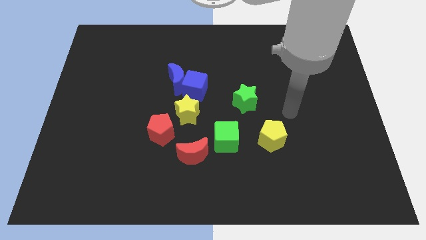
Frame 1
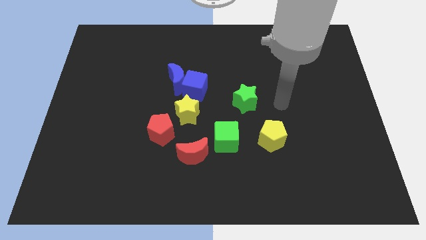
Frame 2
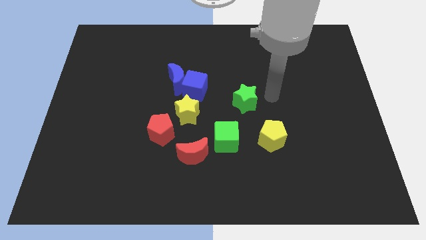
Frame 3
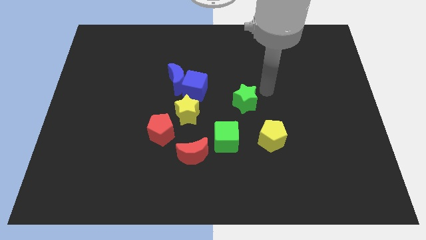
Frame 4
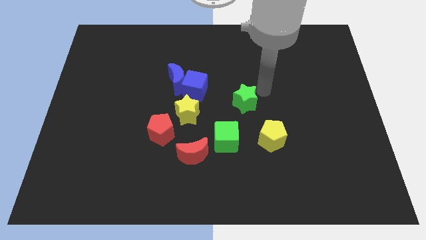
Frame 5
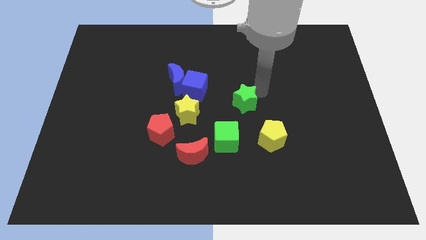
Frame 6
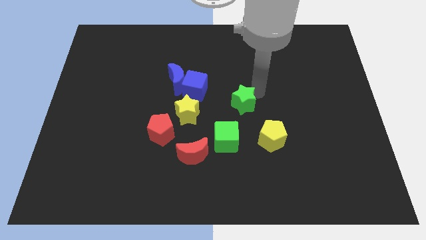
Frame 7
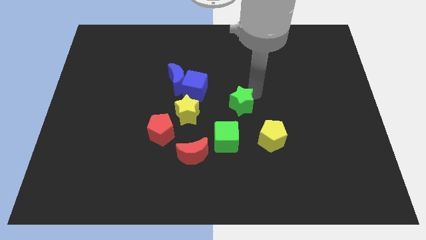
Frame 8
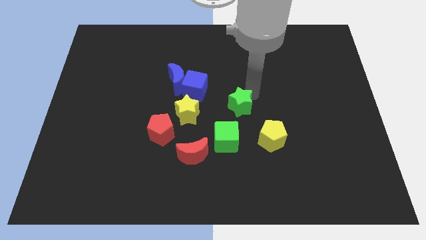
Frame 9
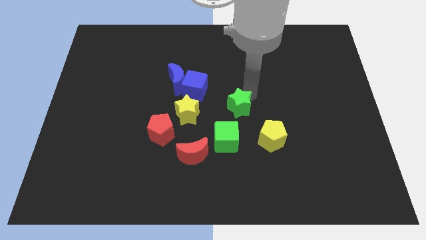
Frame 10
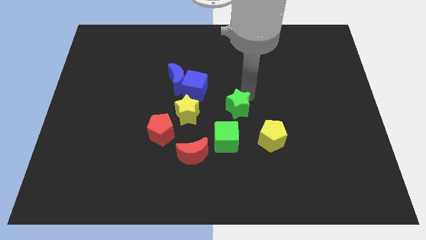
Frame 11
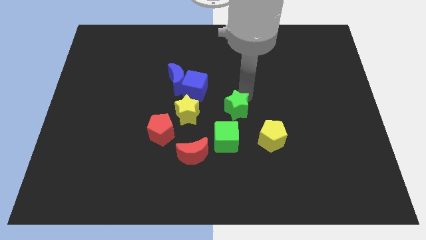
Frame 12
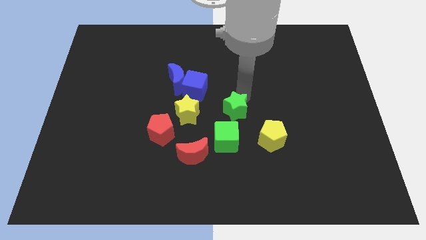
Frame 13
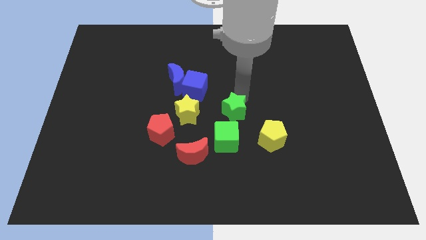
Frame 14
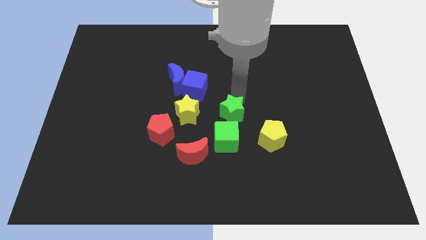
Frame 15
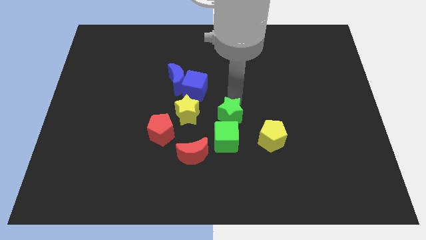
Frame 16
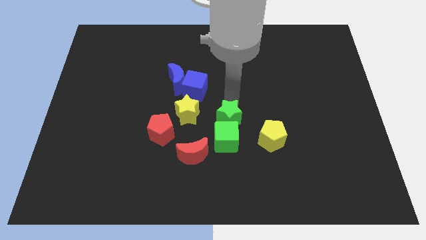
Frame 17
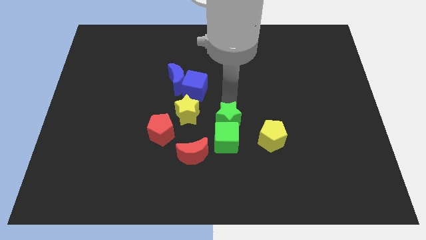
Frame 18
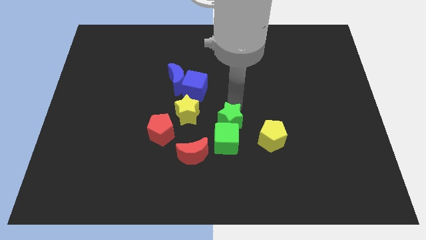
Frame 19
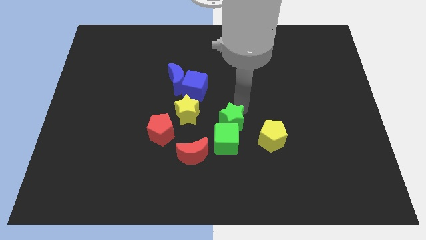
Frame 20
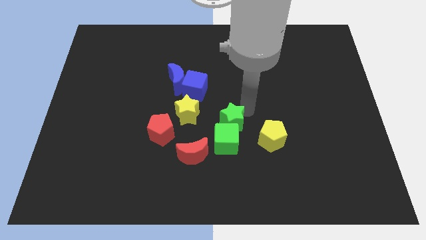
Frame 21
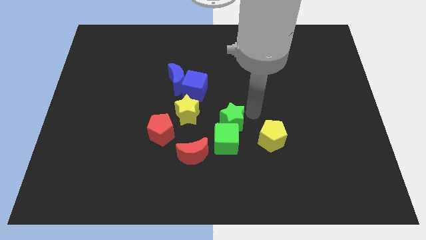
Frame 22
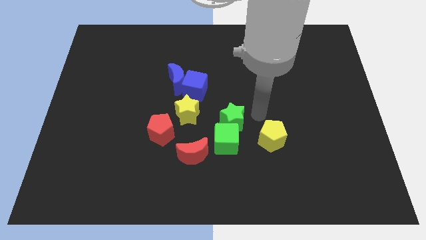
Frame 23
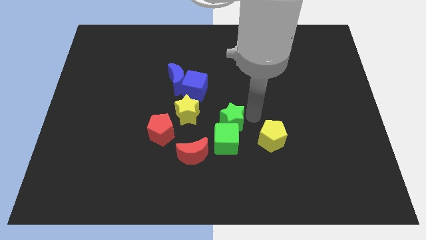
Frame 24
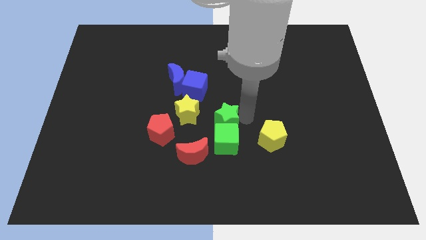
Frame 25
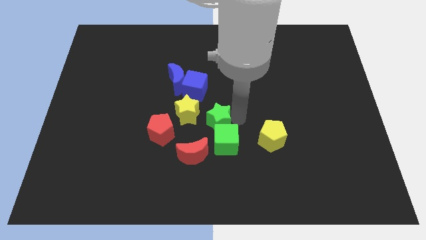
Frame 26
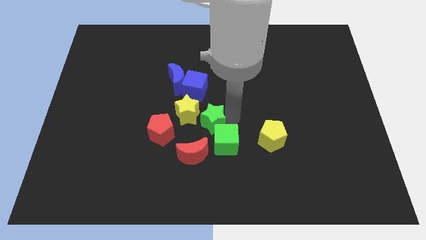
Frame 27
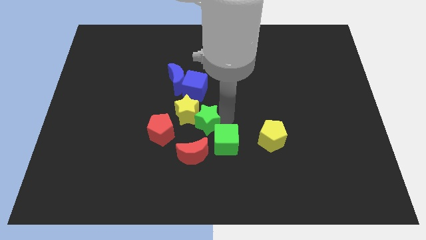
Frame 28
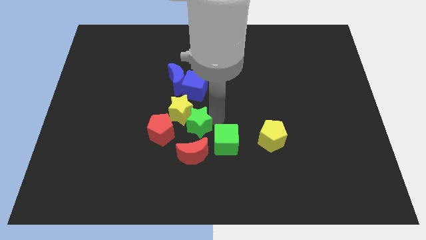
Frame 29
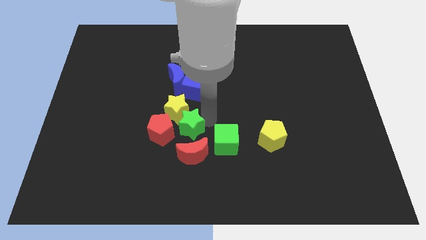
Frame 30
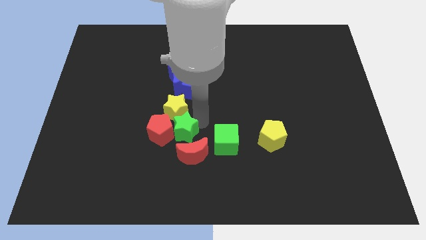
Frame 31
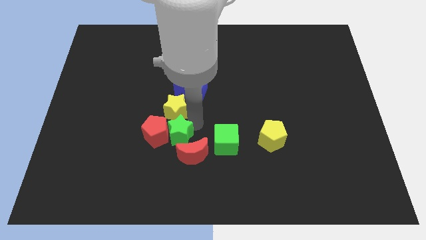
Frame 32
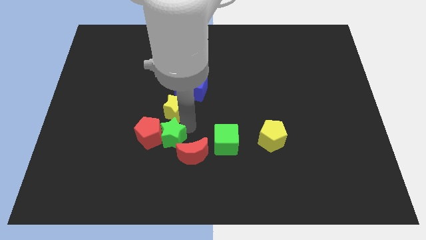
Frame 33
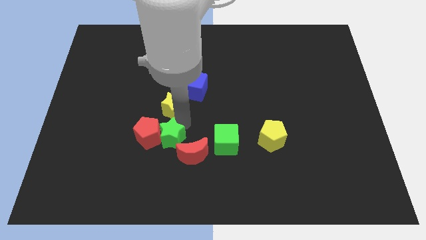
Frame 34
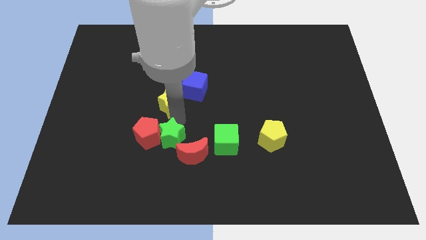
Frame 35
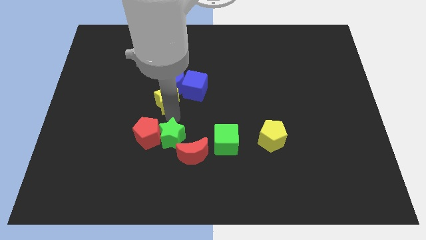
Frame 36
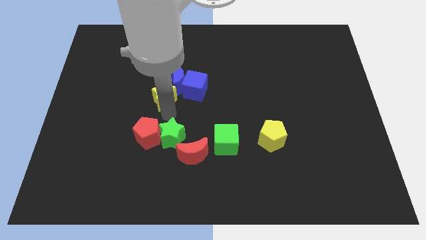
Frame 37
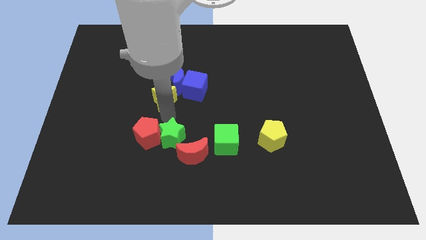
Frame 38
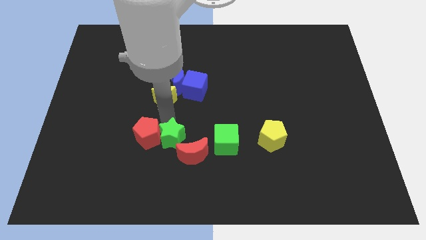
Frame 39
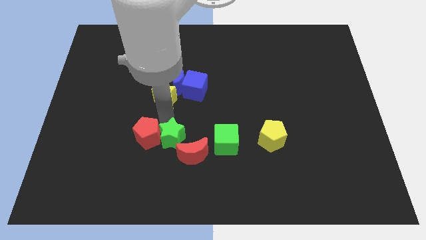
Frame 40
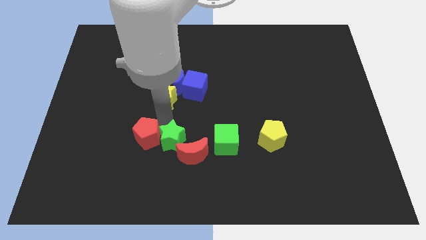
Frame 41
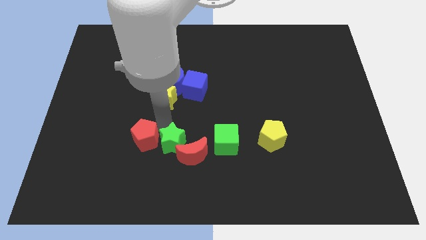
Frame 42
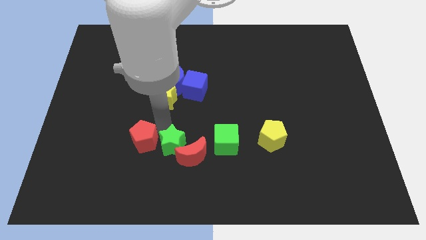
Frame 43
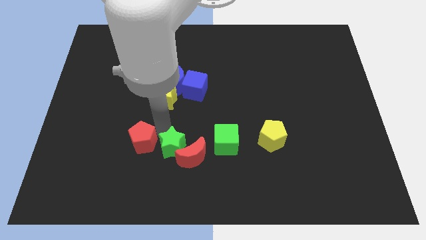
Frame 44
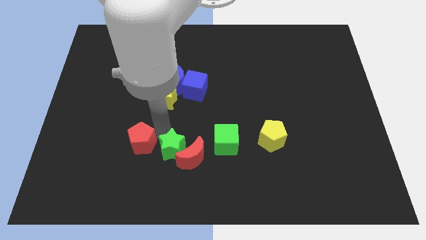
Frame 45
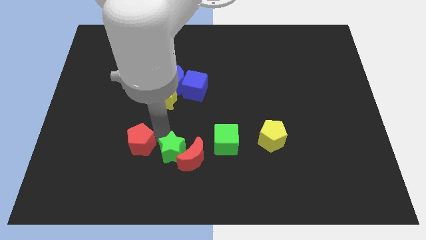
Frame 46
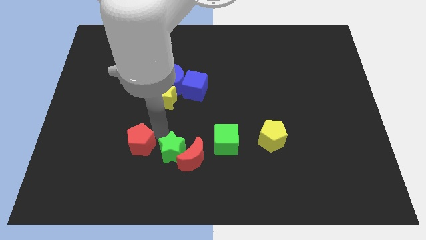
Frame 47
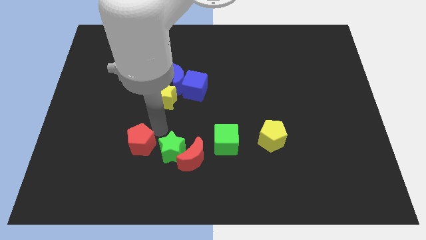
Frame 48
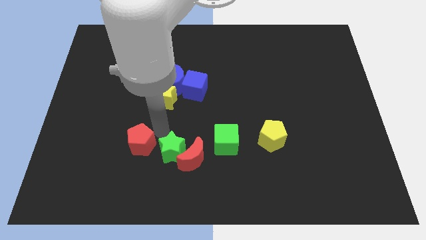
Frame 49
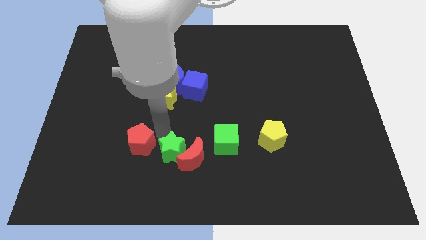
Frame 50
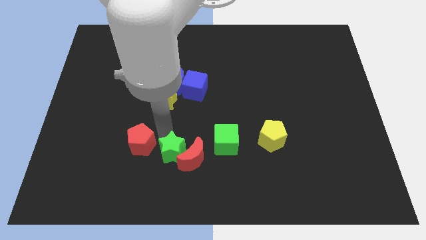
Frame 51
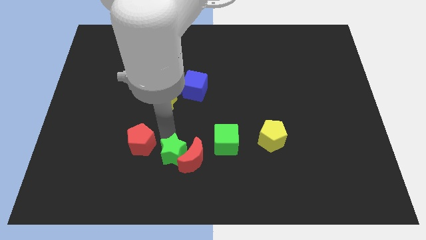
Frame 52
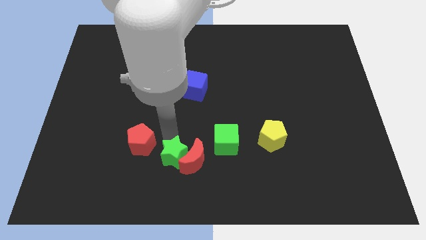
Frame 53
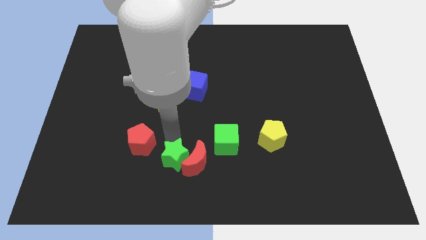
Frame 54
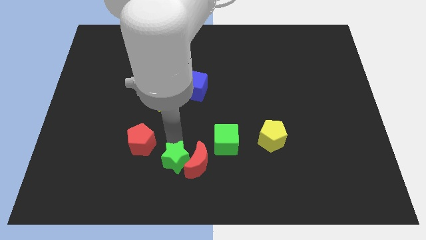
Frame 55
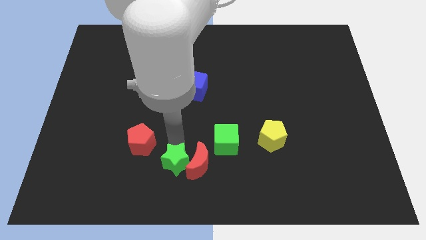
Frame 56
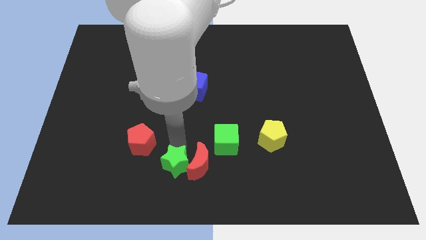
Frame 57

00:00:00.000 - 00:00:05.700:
slide the green star to the bottom

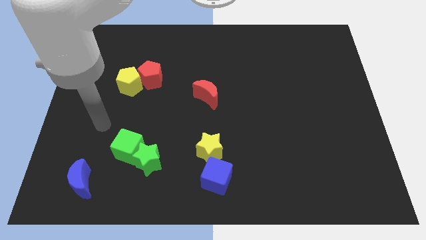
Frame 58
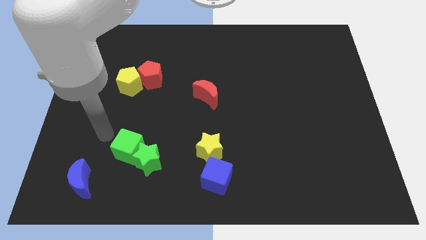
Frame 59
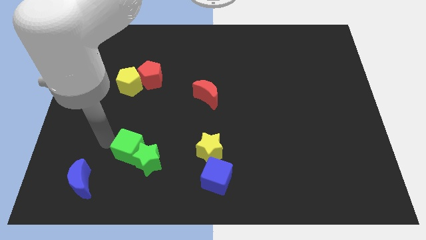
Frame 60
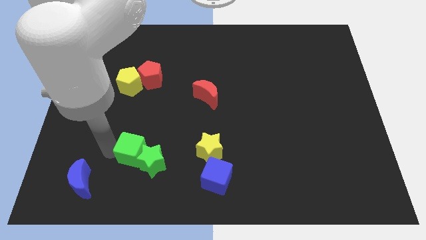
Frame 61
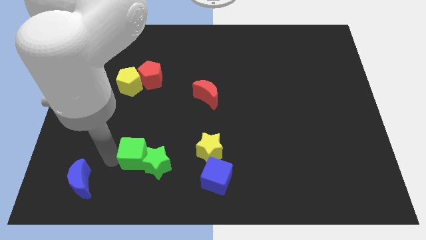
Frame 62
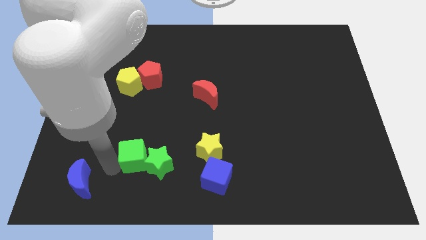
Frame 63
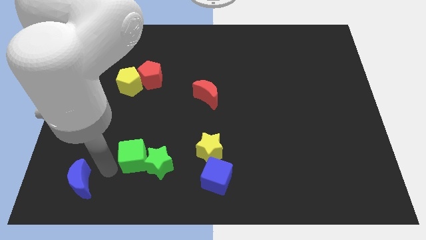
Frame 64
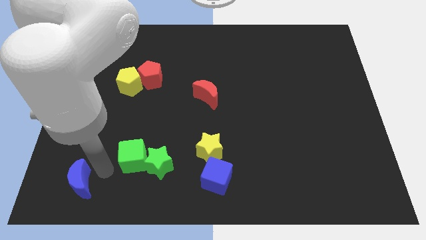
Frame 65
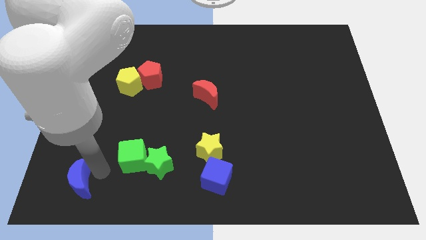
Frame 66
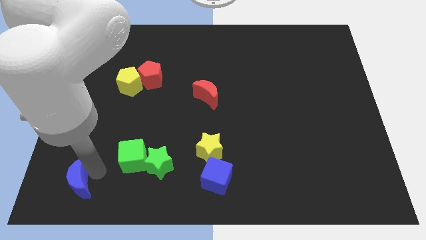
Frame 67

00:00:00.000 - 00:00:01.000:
put the blue moon to the bottom left
